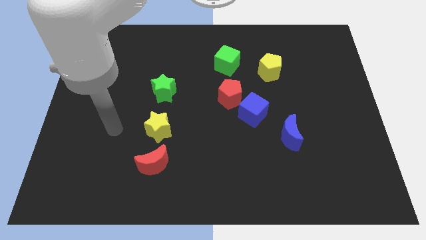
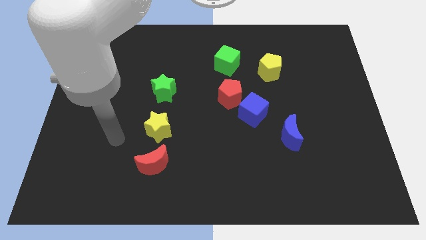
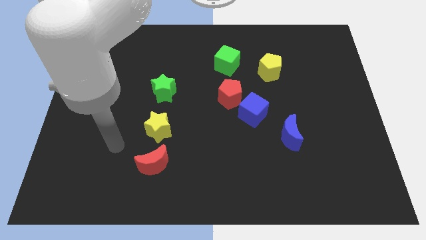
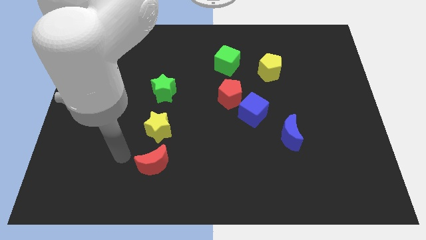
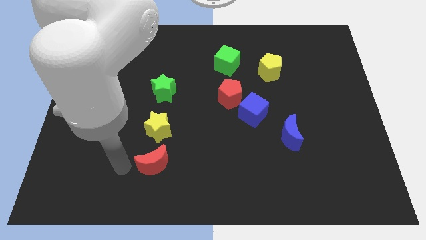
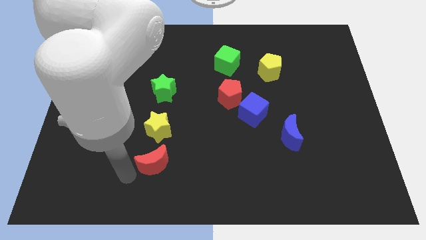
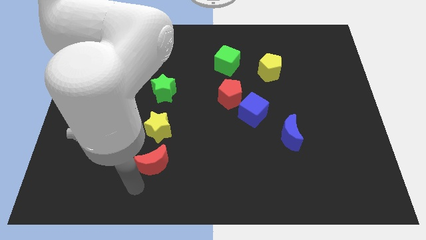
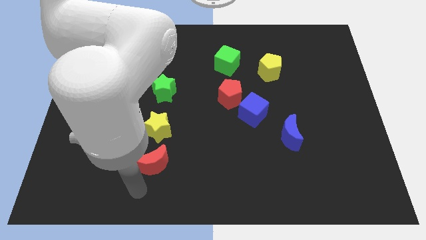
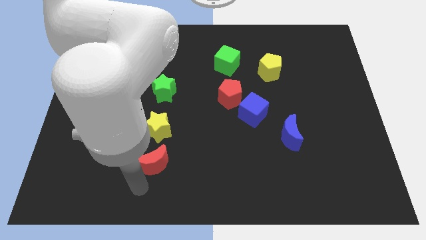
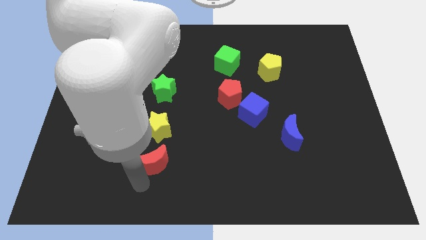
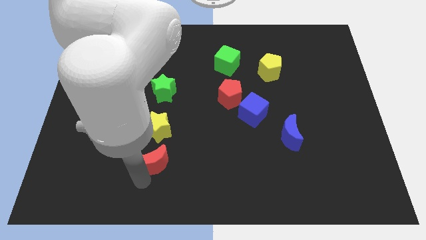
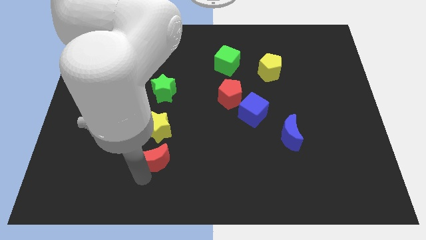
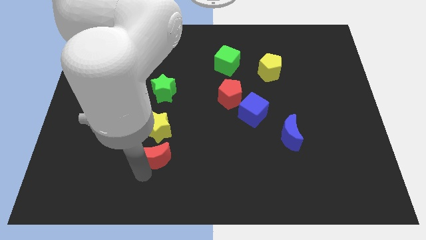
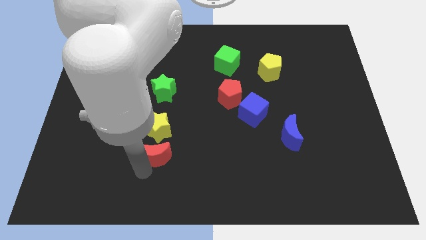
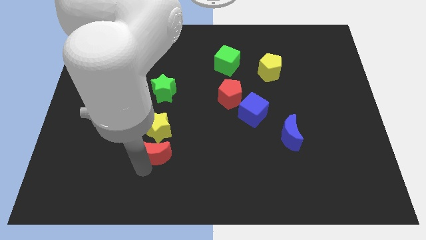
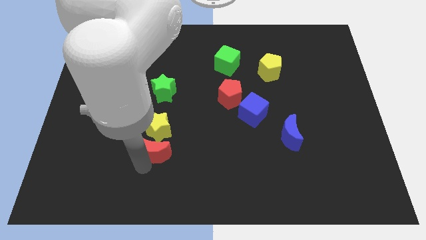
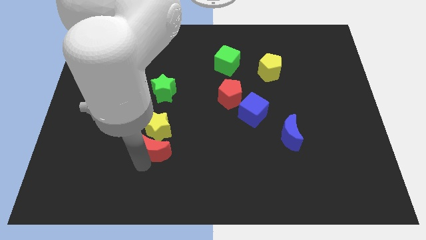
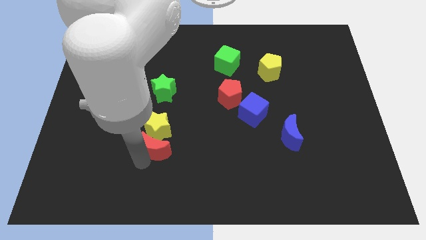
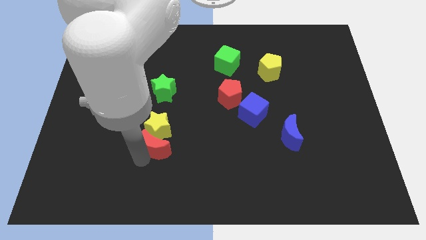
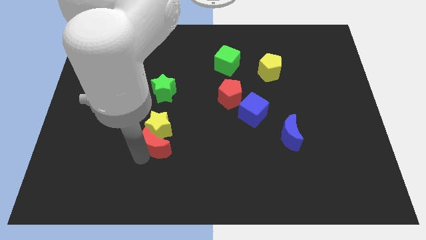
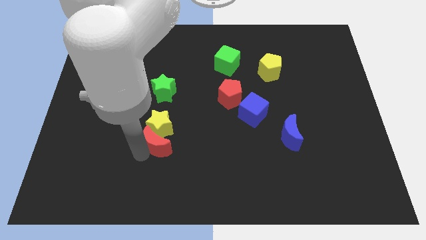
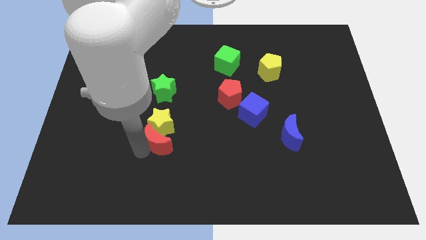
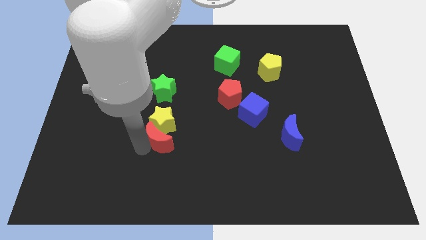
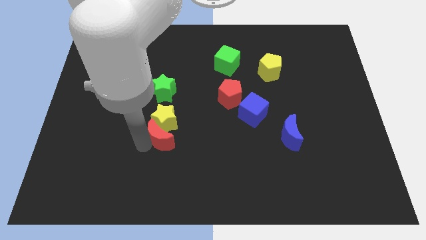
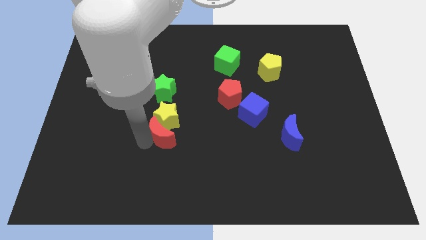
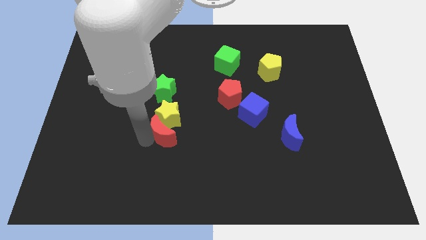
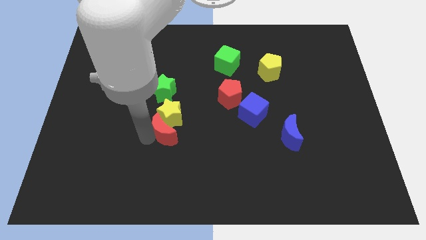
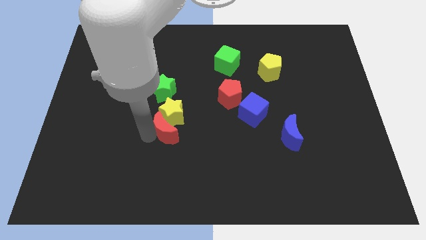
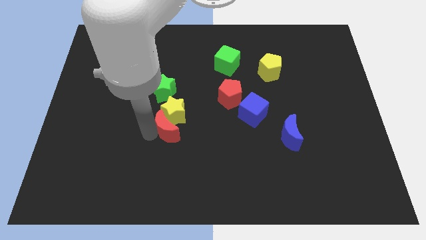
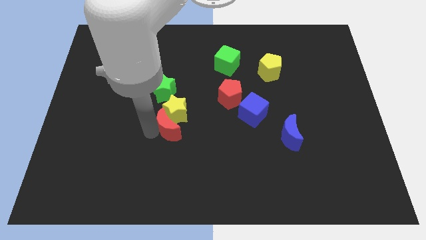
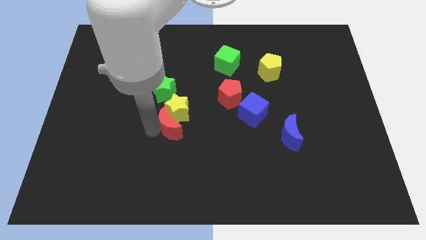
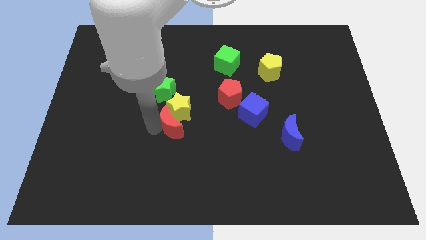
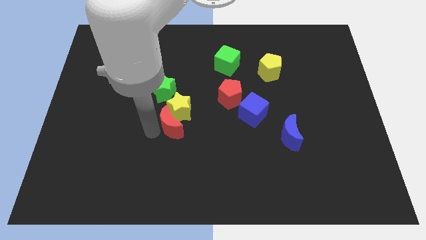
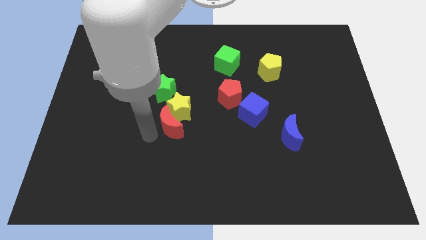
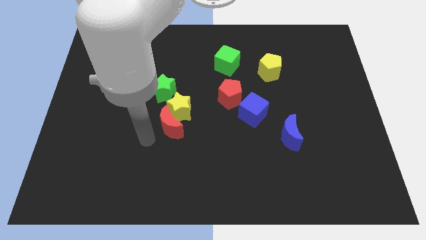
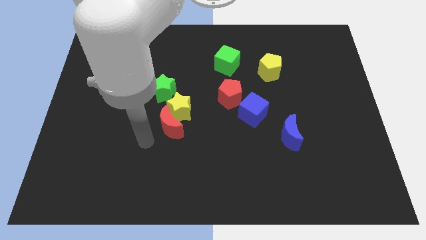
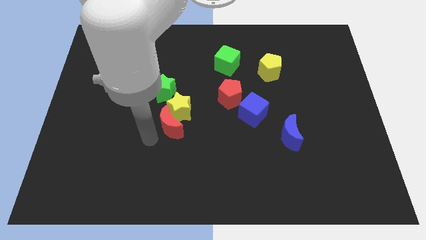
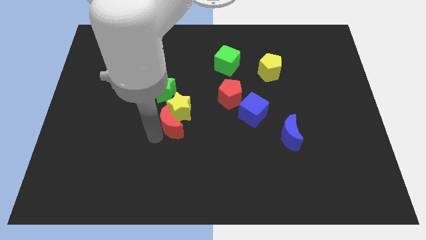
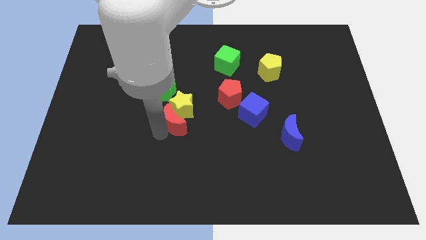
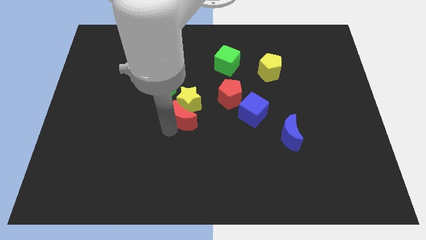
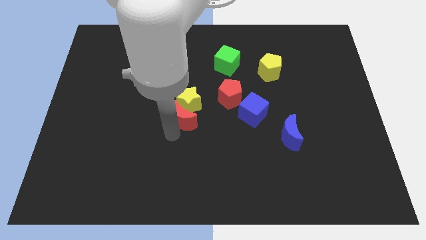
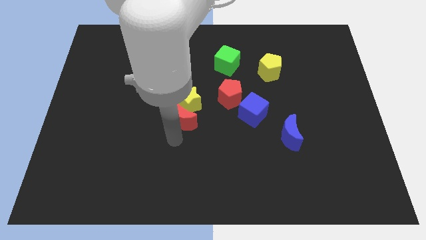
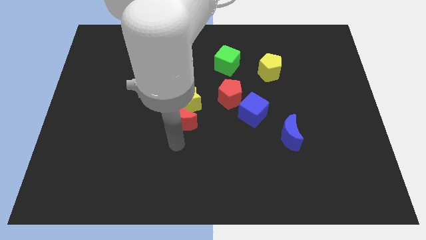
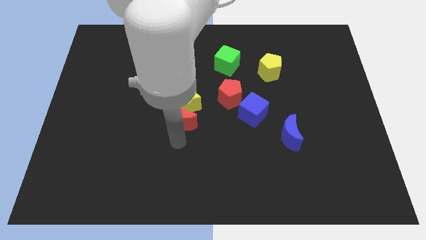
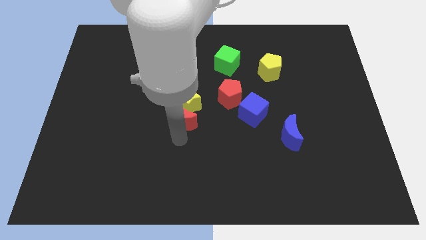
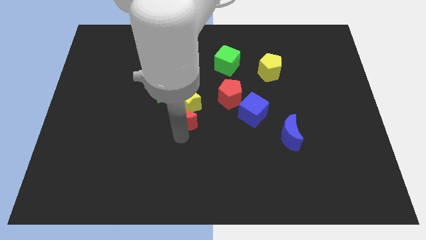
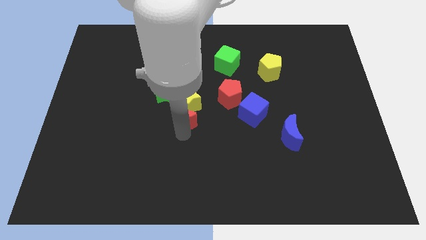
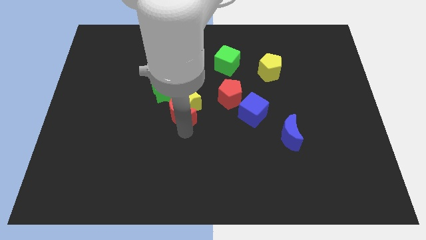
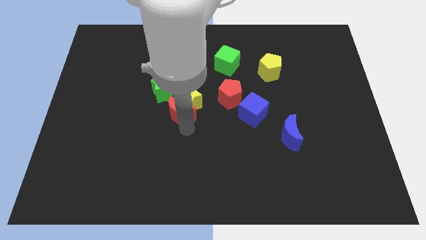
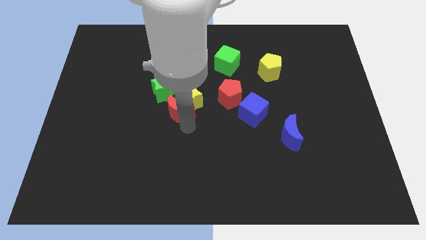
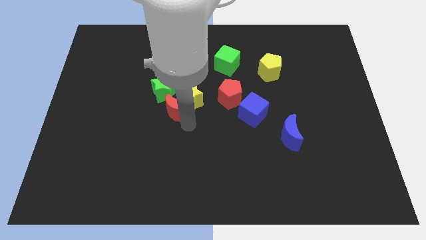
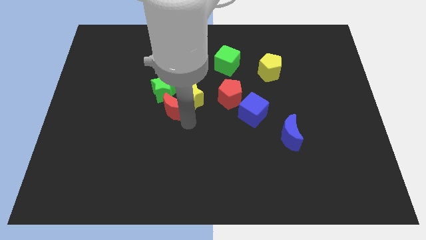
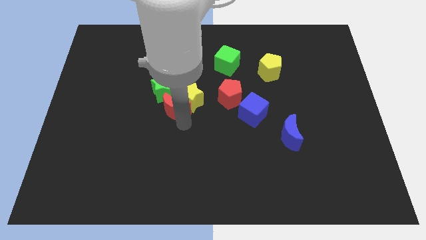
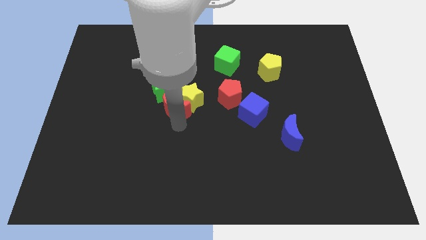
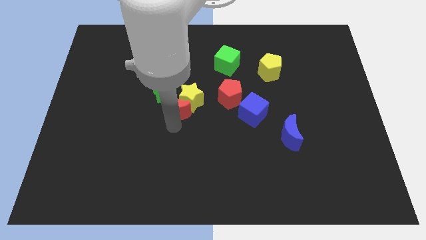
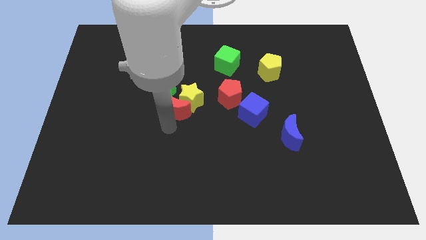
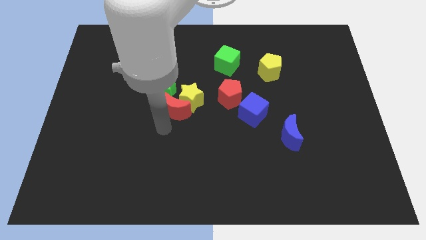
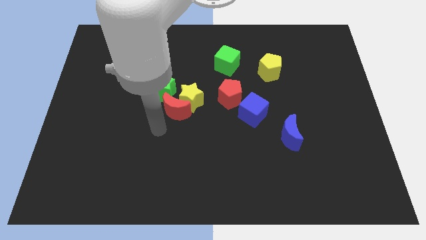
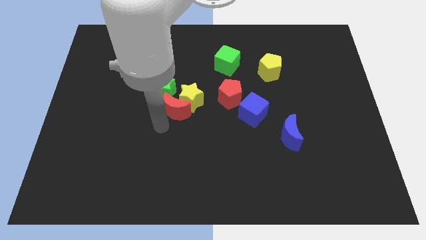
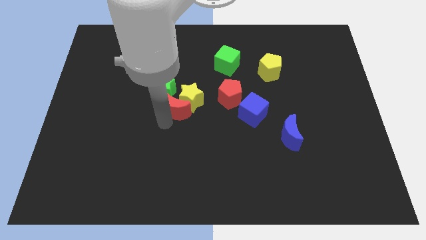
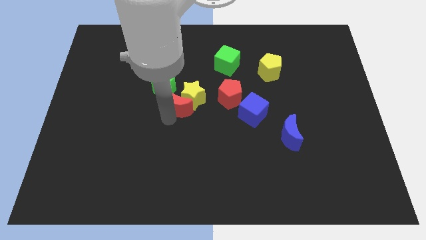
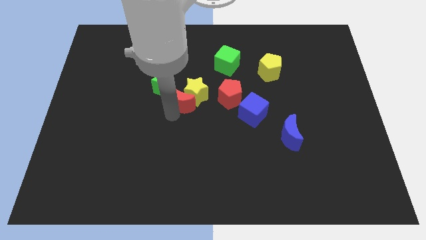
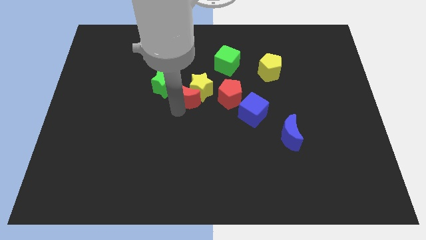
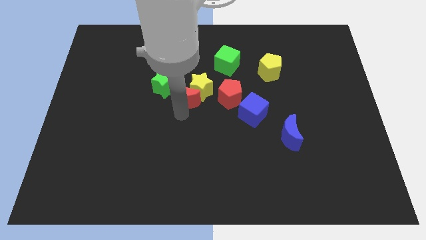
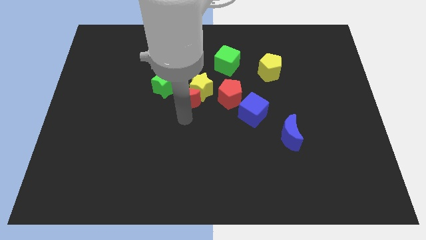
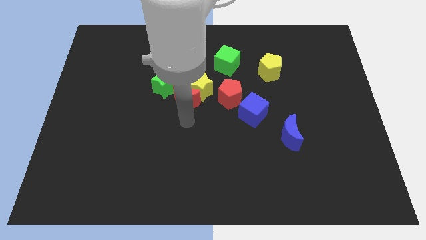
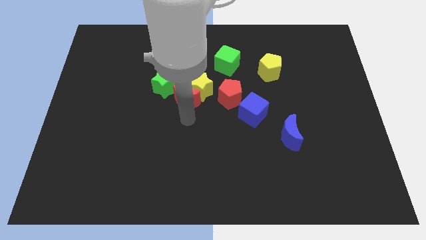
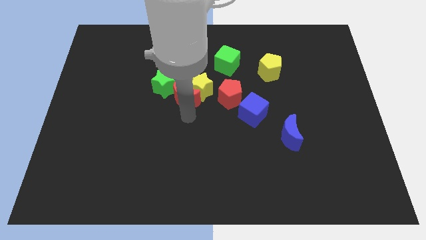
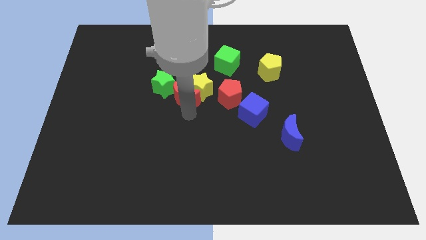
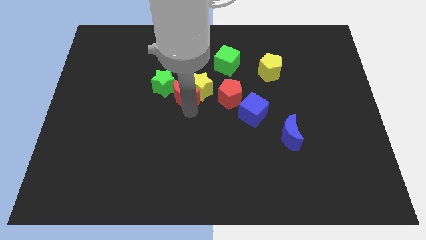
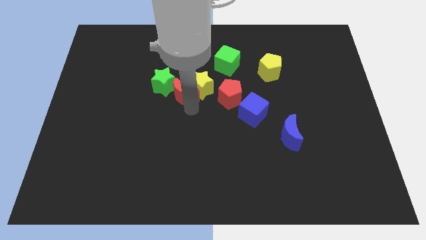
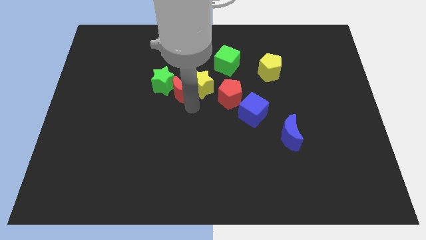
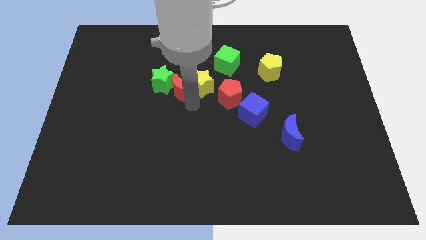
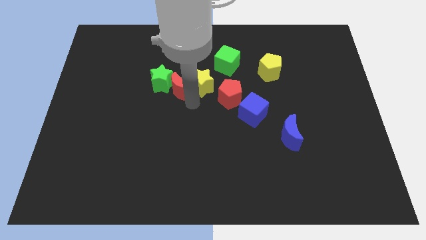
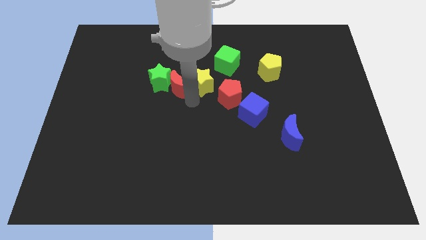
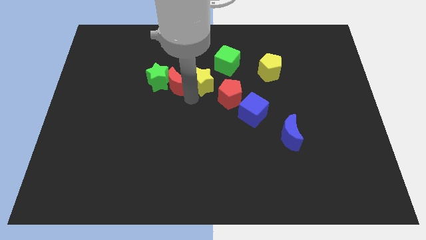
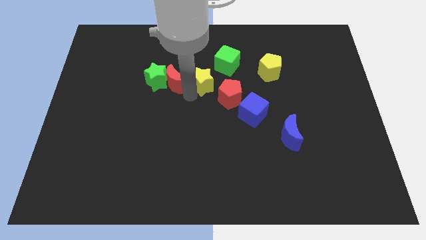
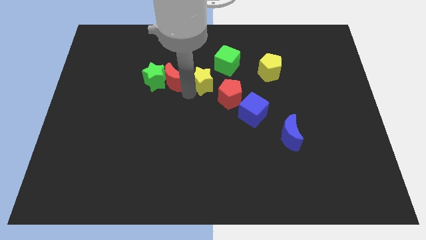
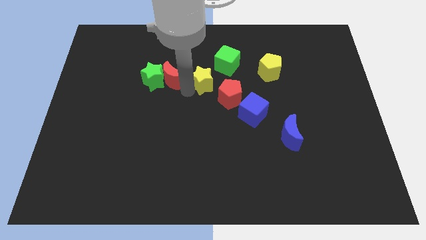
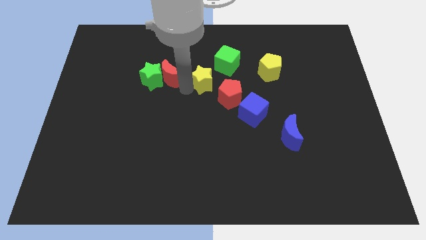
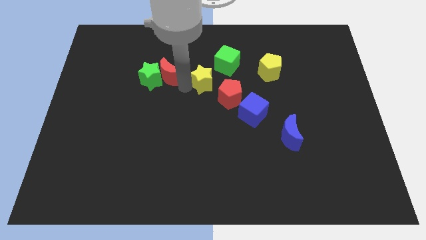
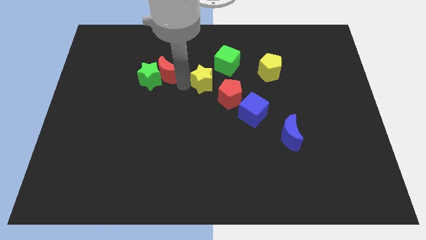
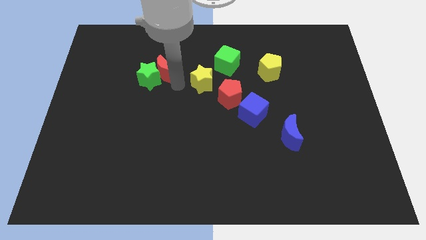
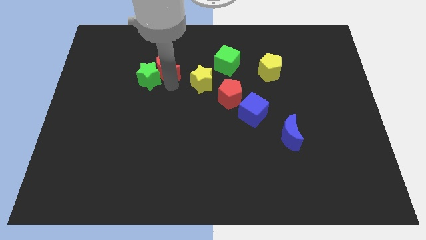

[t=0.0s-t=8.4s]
push the red moon just left of the green cube
